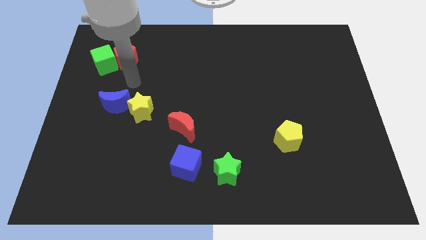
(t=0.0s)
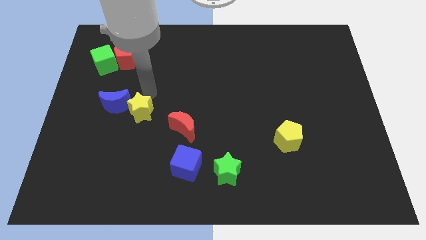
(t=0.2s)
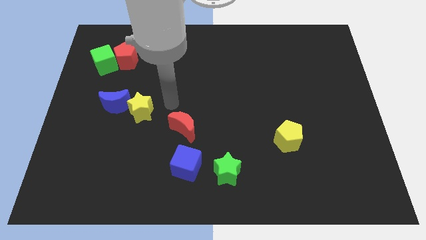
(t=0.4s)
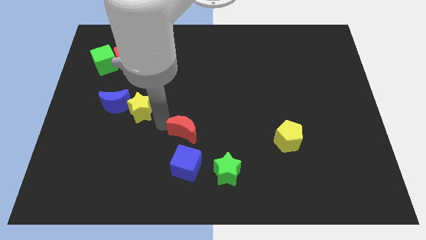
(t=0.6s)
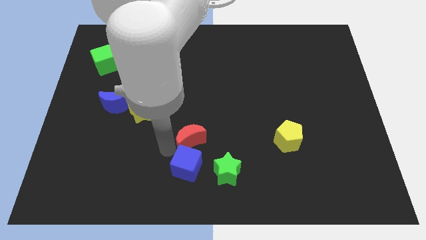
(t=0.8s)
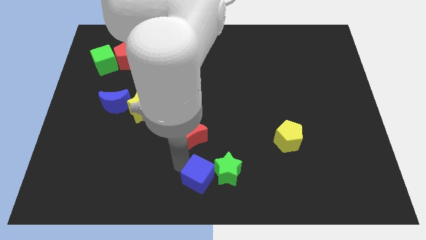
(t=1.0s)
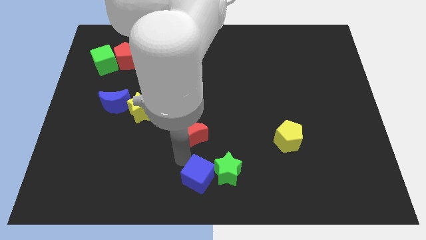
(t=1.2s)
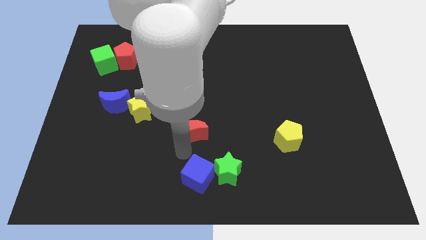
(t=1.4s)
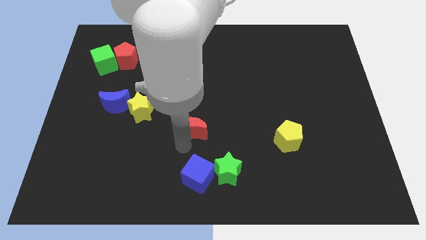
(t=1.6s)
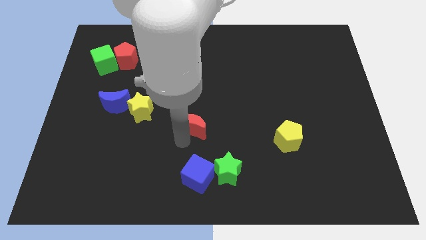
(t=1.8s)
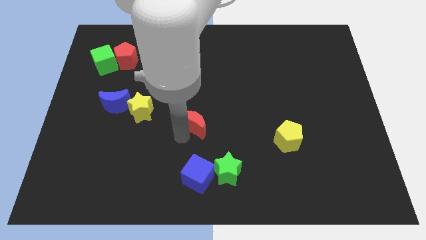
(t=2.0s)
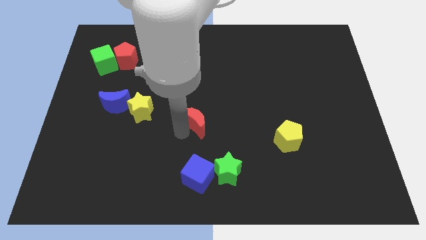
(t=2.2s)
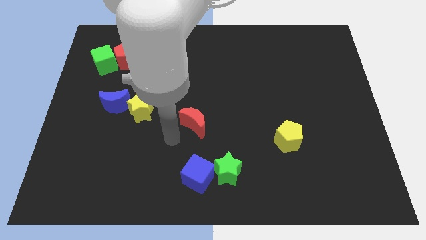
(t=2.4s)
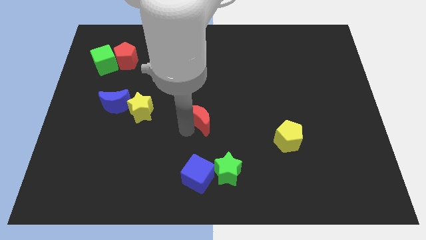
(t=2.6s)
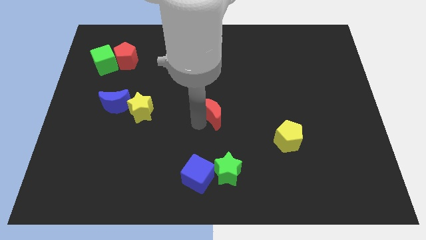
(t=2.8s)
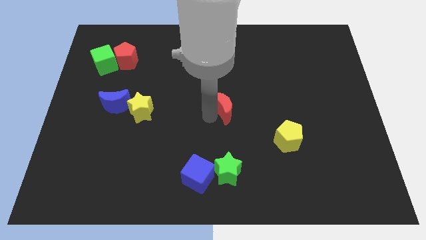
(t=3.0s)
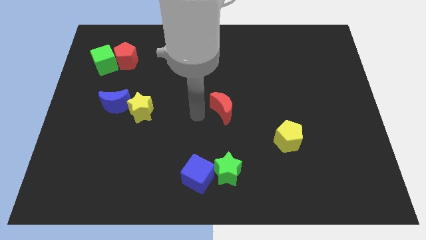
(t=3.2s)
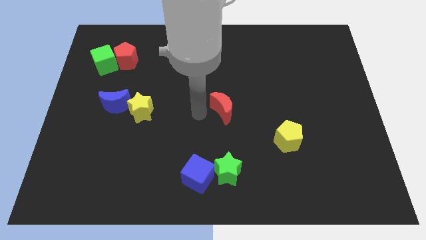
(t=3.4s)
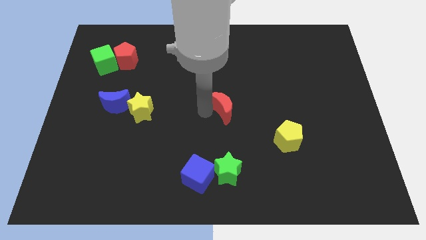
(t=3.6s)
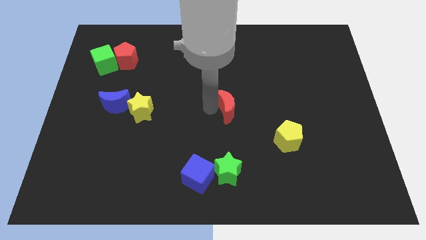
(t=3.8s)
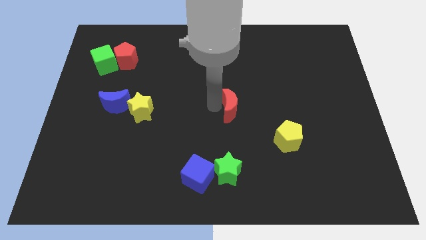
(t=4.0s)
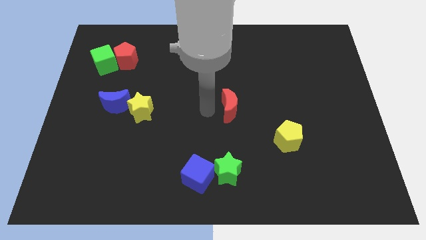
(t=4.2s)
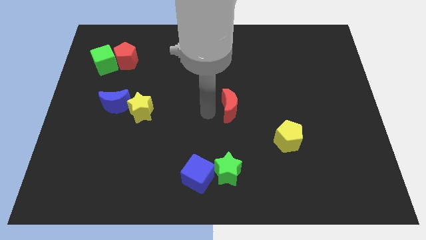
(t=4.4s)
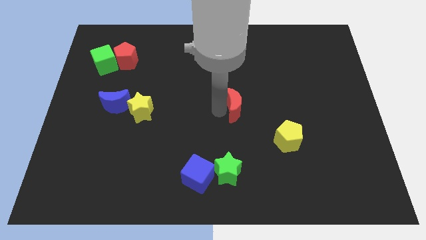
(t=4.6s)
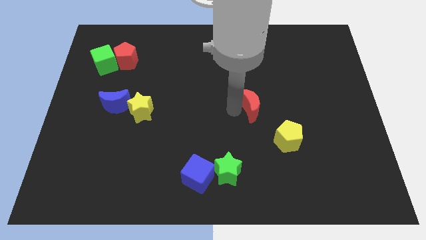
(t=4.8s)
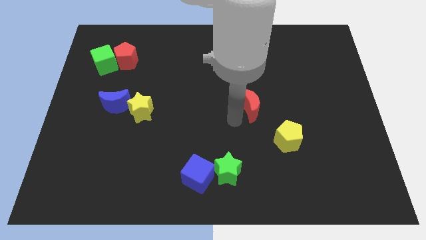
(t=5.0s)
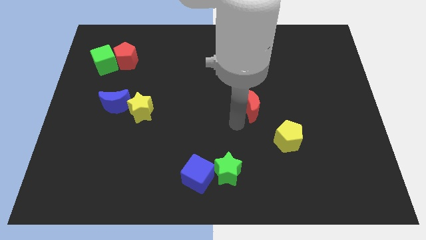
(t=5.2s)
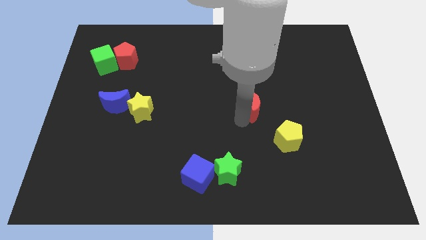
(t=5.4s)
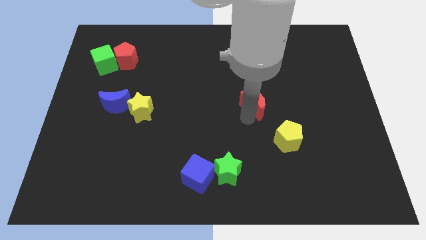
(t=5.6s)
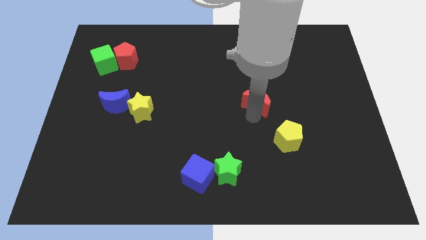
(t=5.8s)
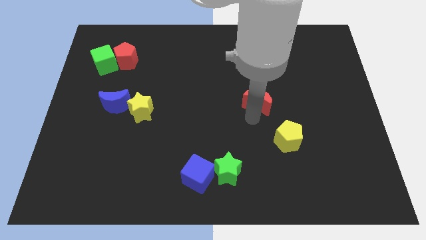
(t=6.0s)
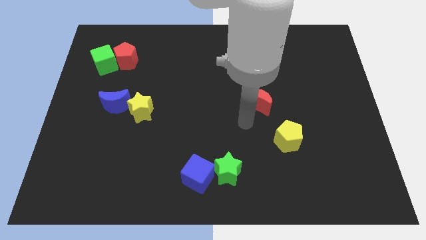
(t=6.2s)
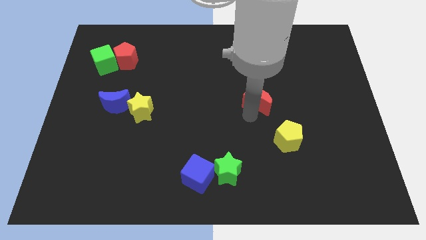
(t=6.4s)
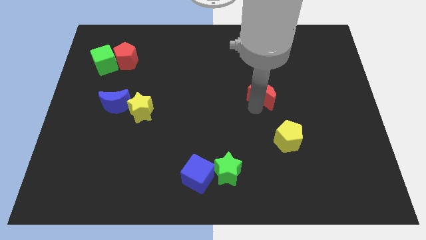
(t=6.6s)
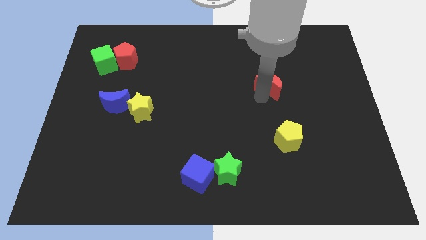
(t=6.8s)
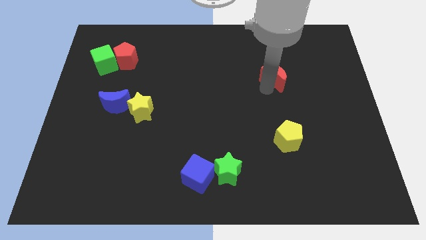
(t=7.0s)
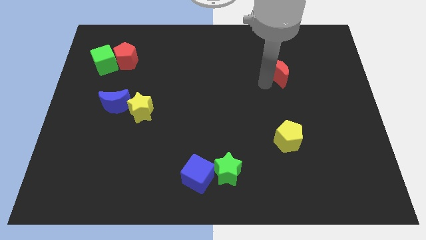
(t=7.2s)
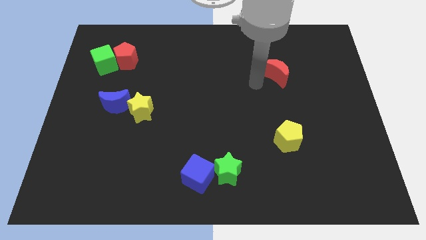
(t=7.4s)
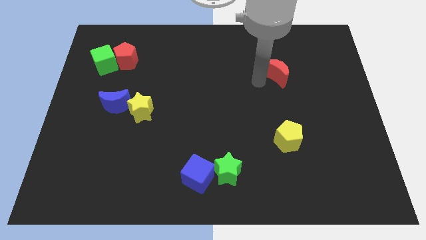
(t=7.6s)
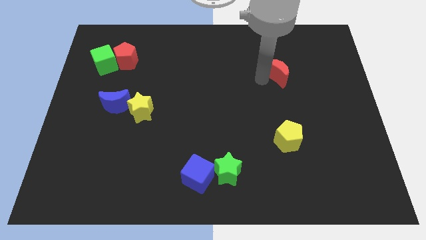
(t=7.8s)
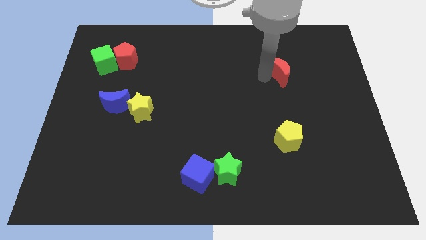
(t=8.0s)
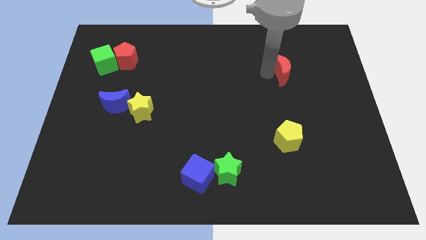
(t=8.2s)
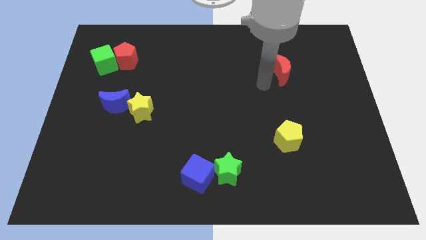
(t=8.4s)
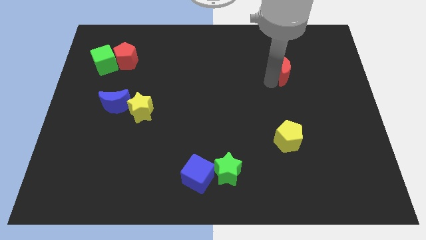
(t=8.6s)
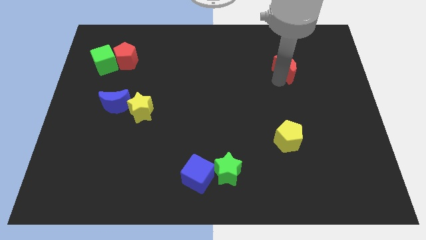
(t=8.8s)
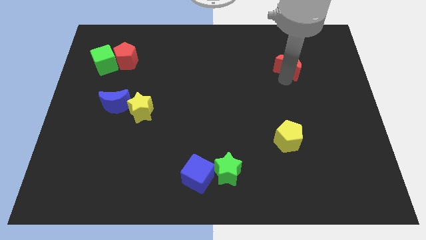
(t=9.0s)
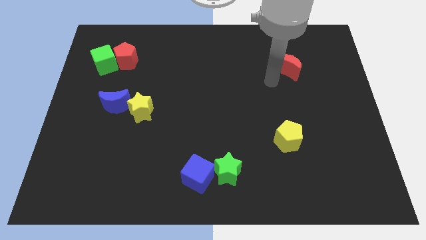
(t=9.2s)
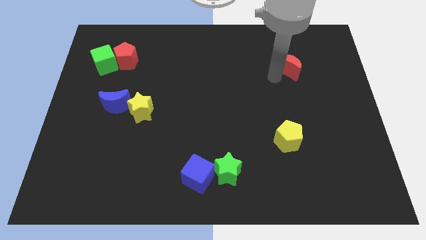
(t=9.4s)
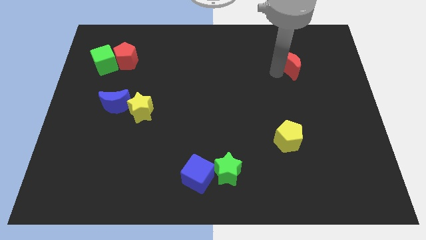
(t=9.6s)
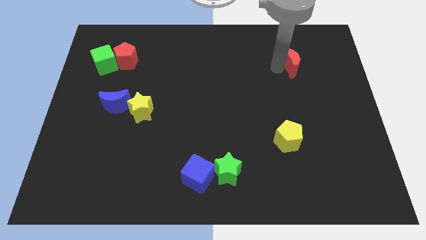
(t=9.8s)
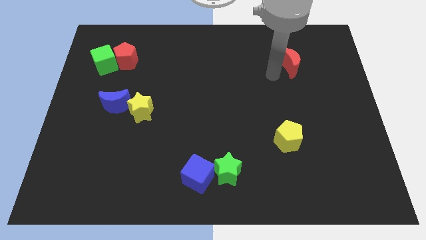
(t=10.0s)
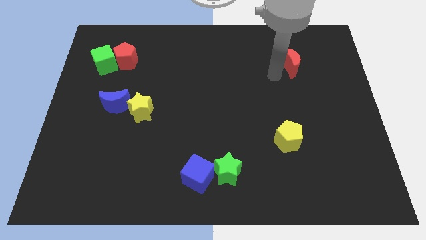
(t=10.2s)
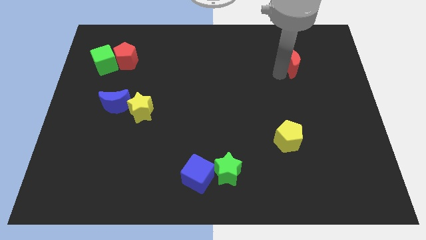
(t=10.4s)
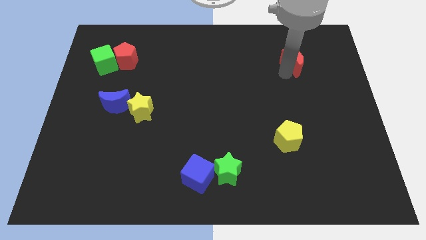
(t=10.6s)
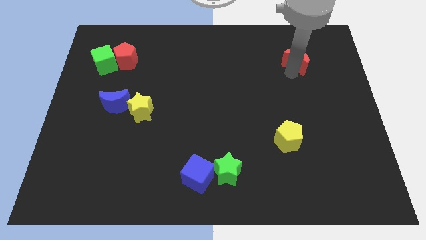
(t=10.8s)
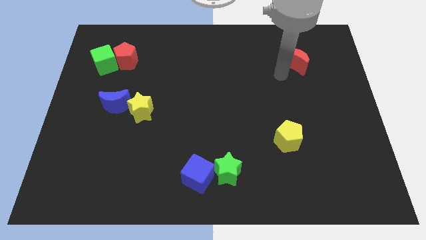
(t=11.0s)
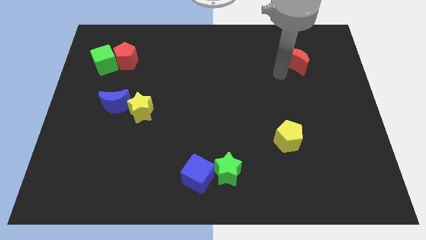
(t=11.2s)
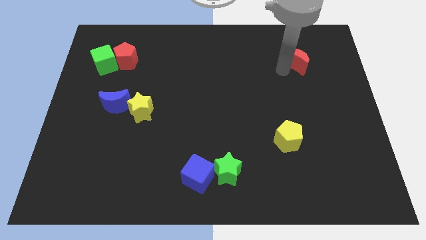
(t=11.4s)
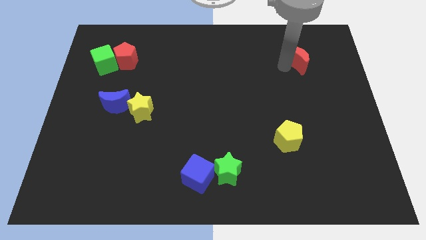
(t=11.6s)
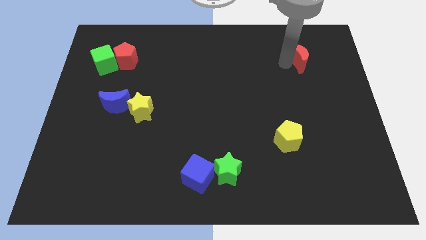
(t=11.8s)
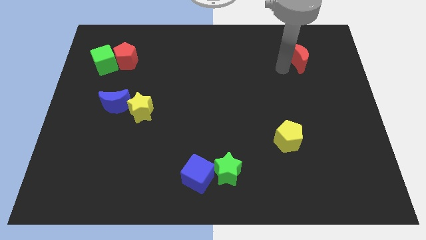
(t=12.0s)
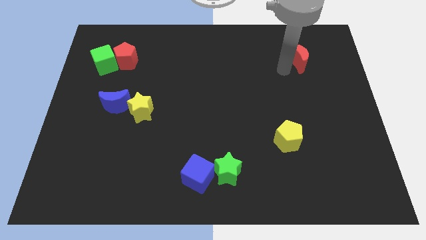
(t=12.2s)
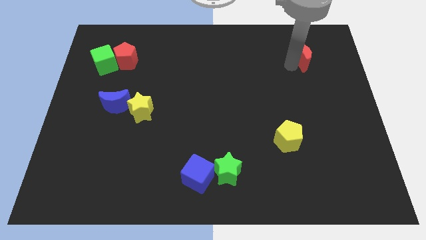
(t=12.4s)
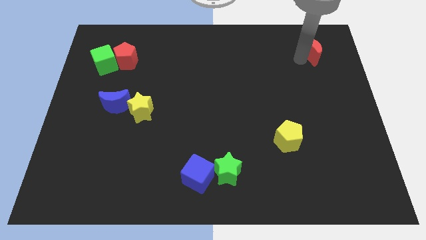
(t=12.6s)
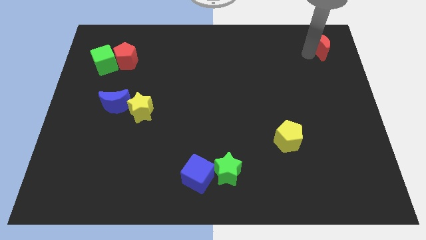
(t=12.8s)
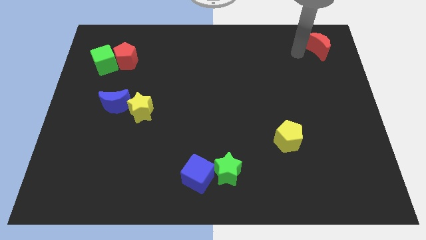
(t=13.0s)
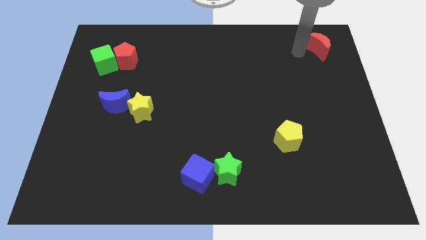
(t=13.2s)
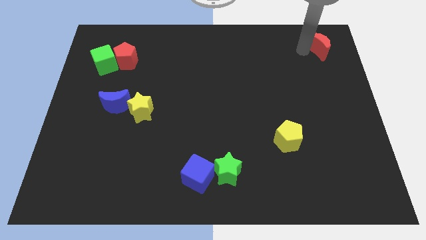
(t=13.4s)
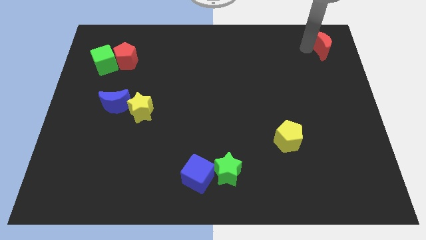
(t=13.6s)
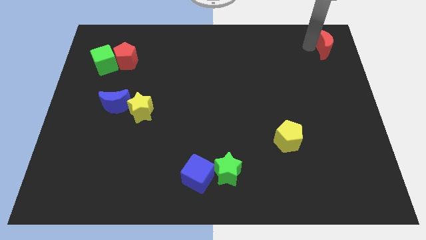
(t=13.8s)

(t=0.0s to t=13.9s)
push the red moon to the top right corner
